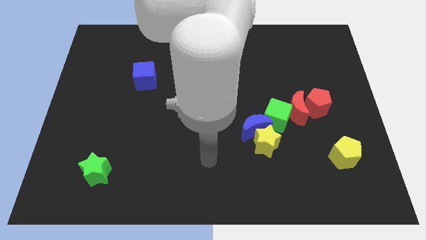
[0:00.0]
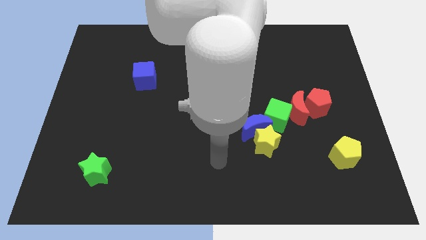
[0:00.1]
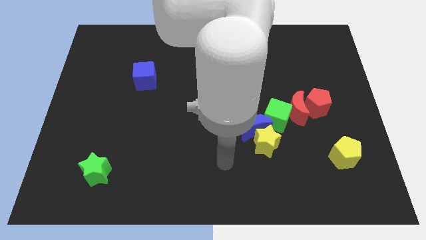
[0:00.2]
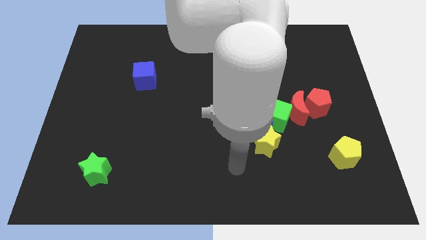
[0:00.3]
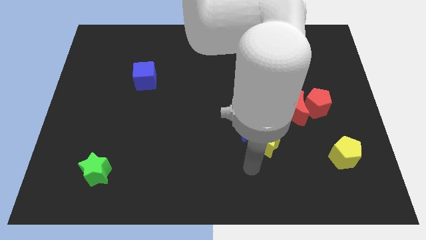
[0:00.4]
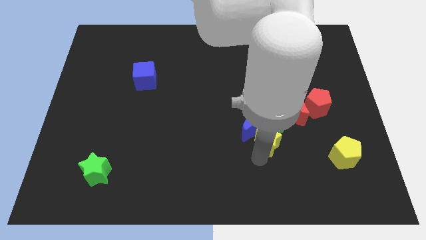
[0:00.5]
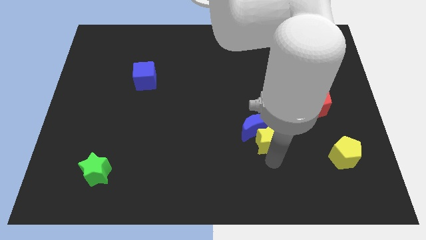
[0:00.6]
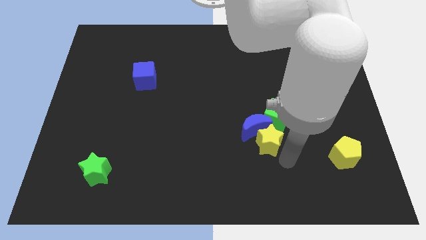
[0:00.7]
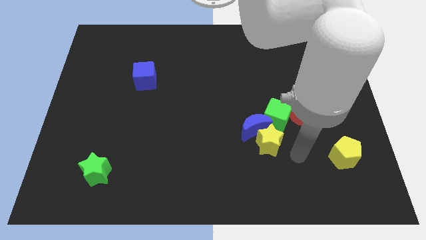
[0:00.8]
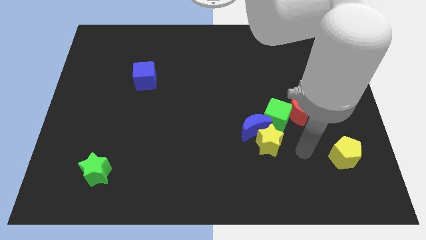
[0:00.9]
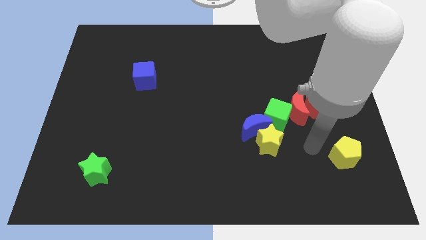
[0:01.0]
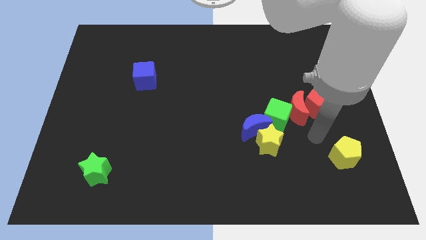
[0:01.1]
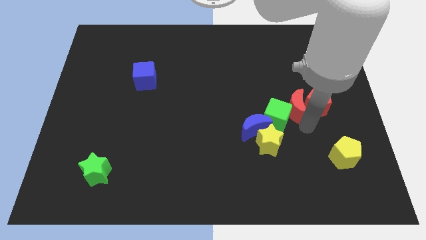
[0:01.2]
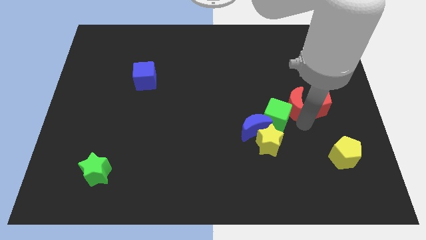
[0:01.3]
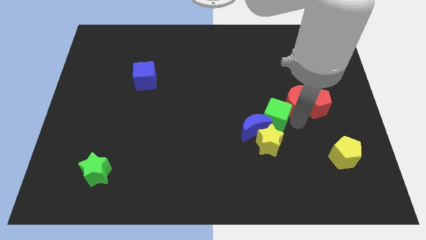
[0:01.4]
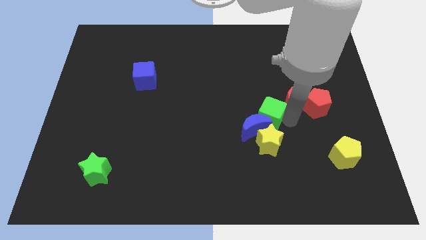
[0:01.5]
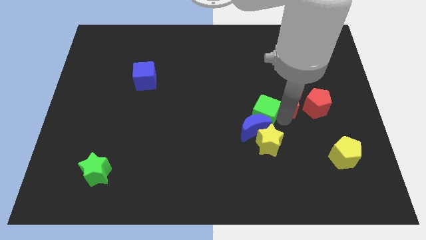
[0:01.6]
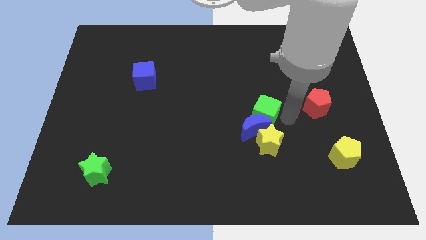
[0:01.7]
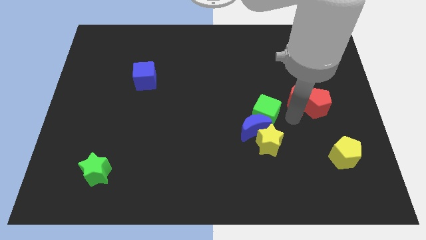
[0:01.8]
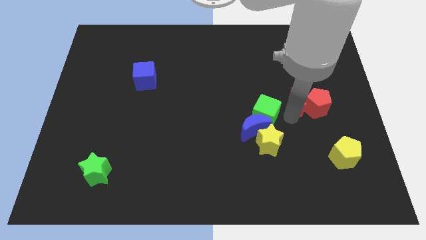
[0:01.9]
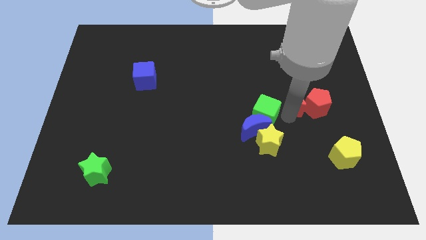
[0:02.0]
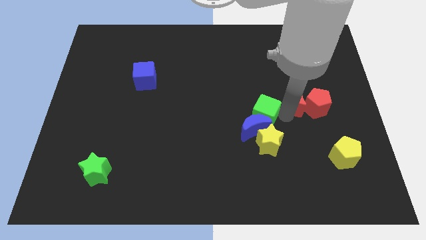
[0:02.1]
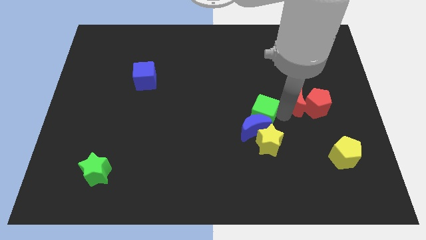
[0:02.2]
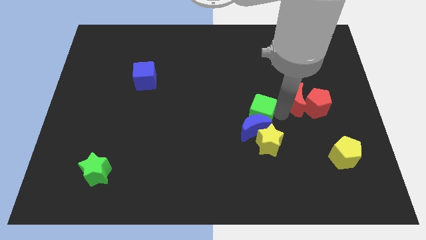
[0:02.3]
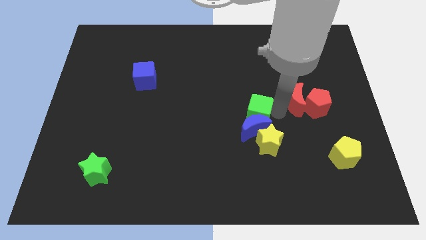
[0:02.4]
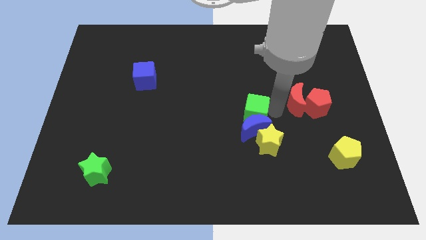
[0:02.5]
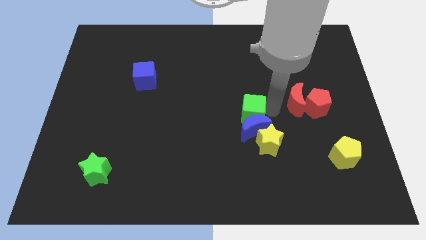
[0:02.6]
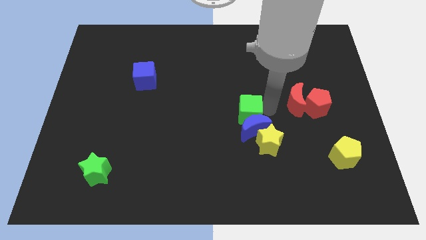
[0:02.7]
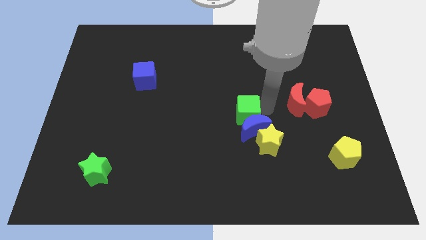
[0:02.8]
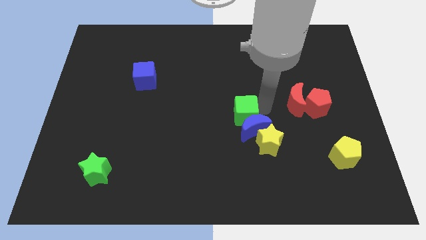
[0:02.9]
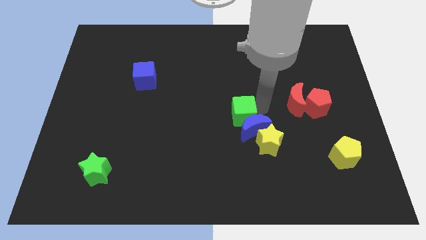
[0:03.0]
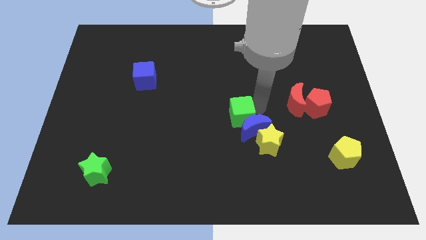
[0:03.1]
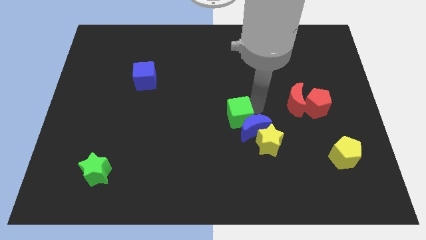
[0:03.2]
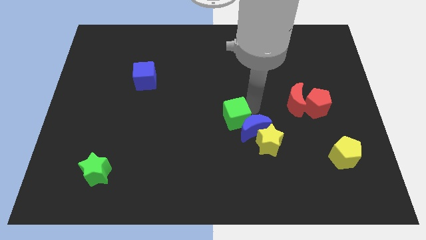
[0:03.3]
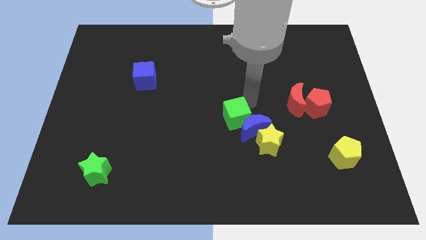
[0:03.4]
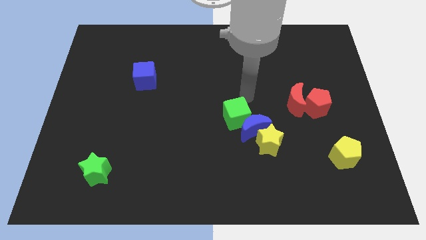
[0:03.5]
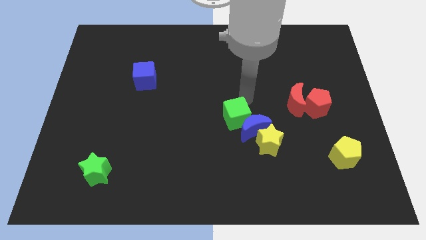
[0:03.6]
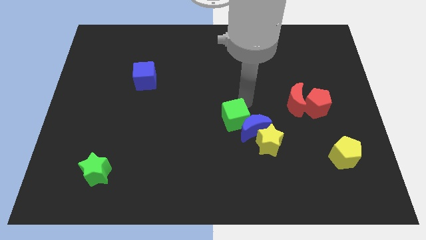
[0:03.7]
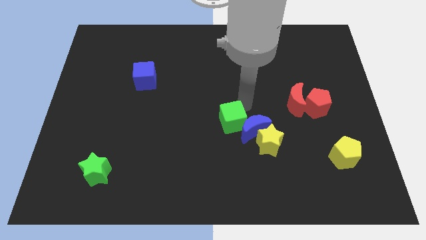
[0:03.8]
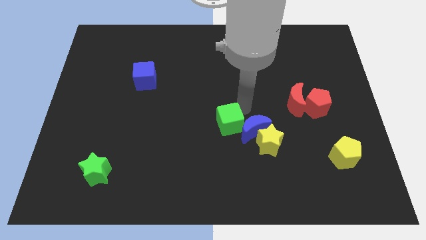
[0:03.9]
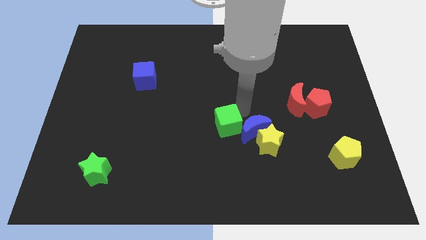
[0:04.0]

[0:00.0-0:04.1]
move the green cube downwards and to the left diagonally a bit

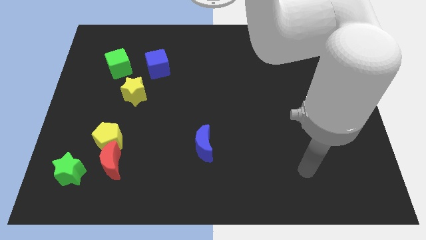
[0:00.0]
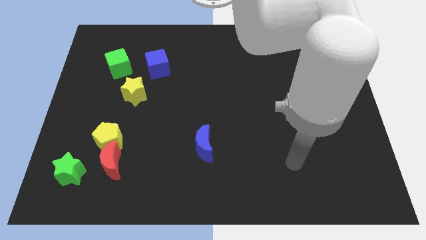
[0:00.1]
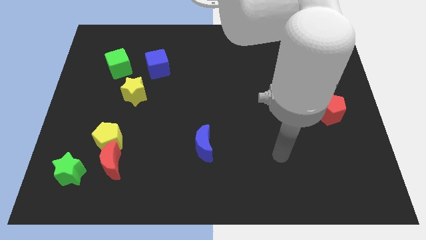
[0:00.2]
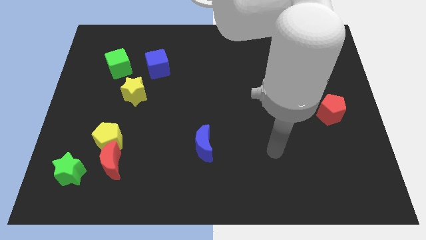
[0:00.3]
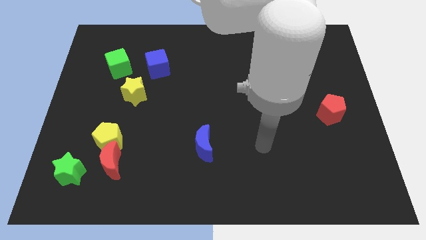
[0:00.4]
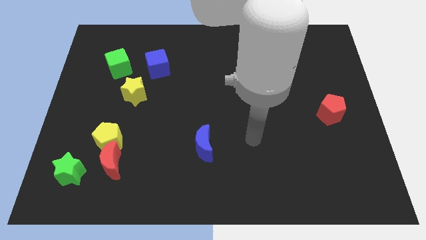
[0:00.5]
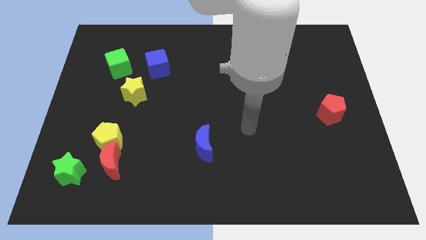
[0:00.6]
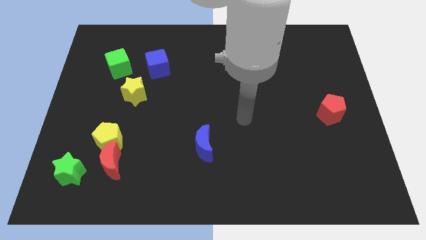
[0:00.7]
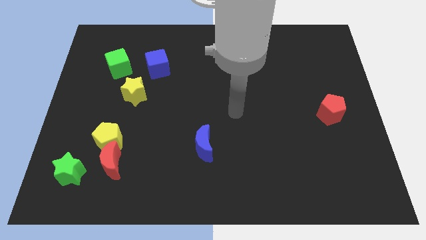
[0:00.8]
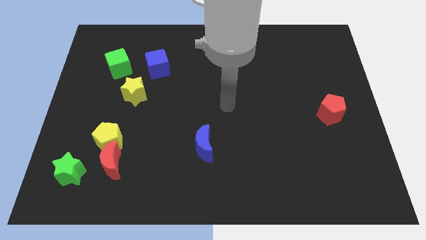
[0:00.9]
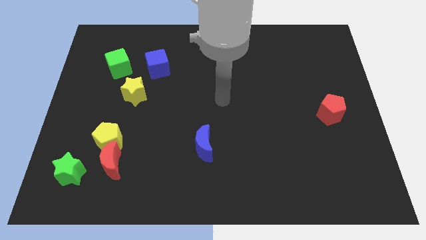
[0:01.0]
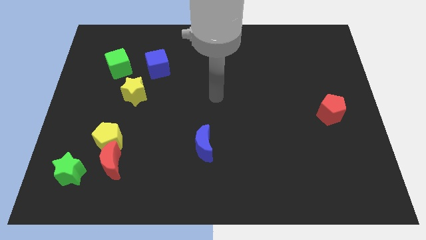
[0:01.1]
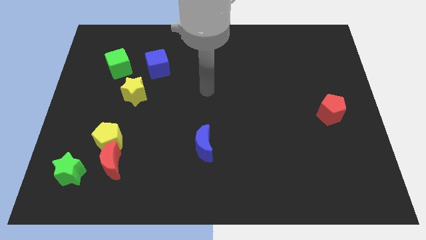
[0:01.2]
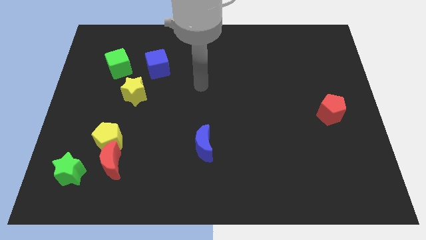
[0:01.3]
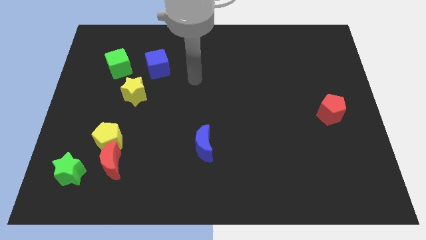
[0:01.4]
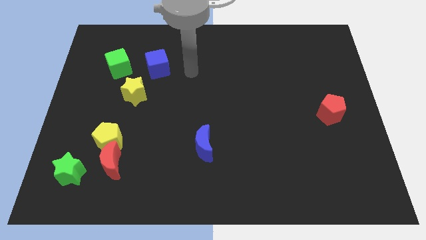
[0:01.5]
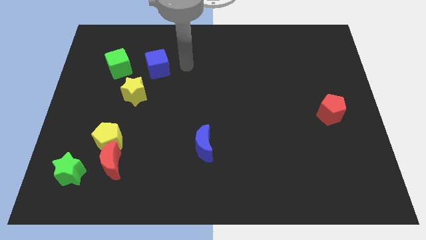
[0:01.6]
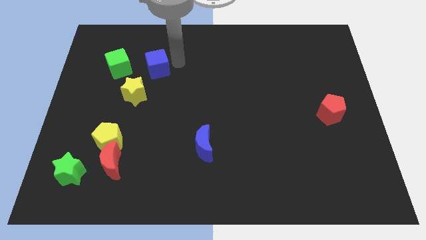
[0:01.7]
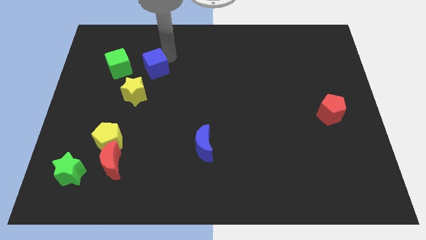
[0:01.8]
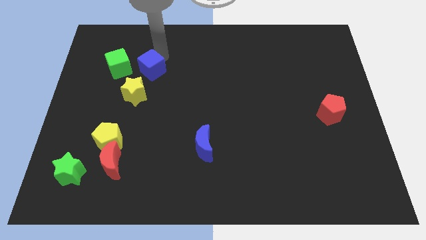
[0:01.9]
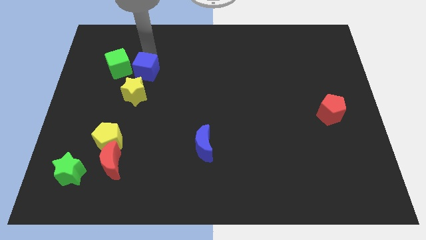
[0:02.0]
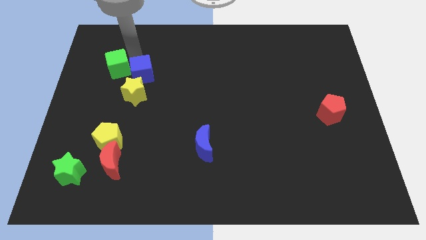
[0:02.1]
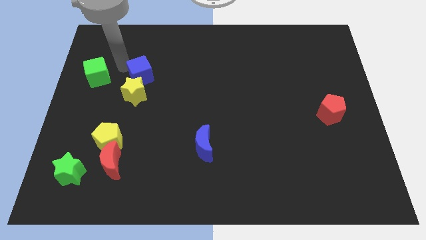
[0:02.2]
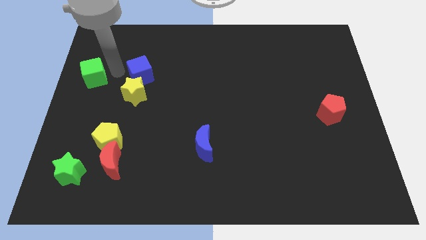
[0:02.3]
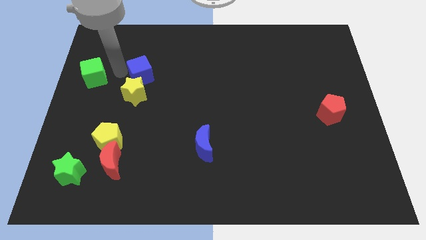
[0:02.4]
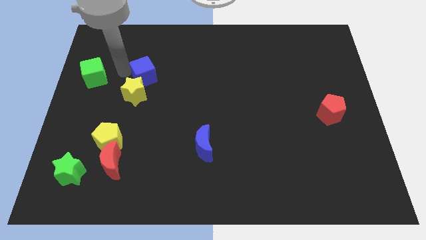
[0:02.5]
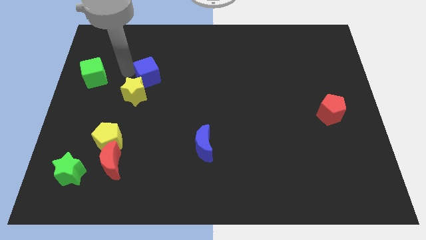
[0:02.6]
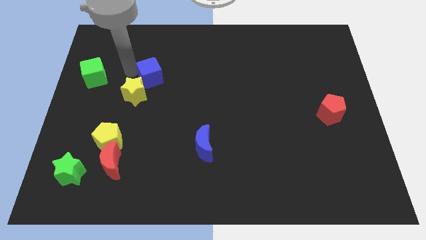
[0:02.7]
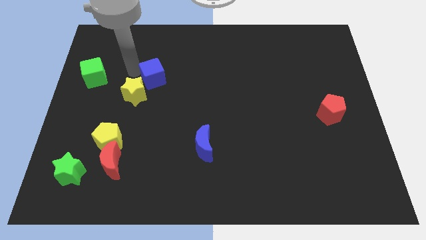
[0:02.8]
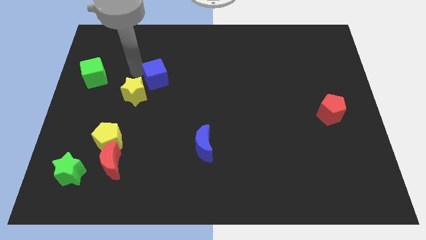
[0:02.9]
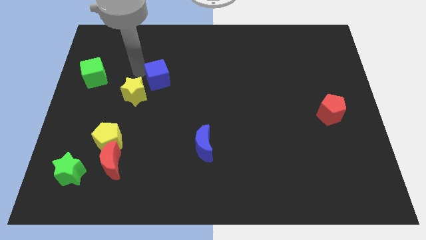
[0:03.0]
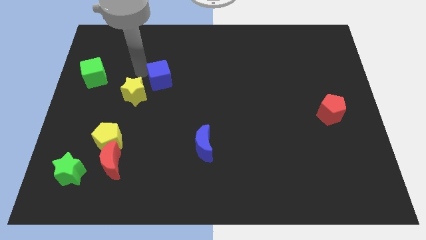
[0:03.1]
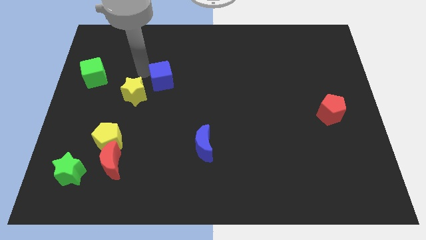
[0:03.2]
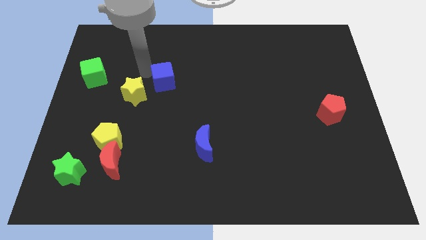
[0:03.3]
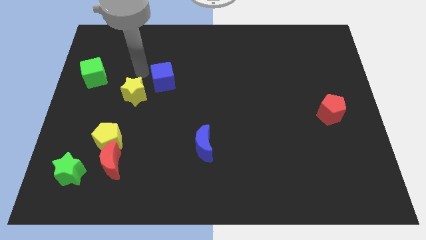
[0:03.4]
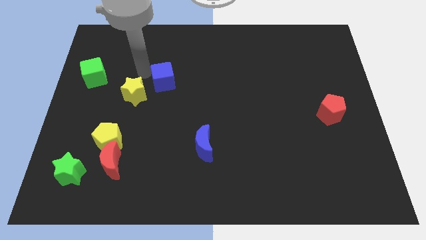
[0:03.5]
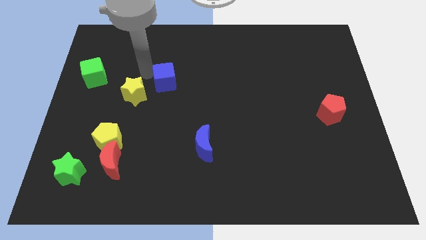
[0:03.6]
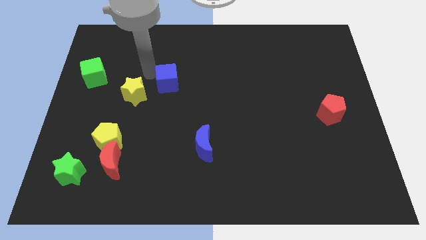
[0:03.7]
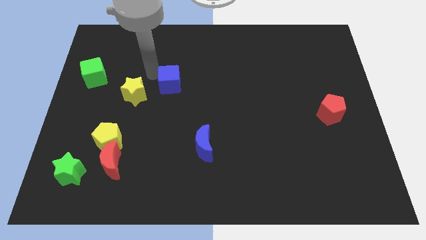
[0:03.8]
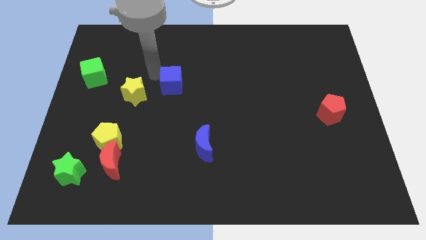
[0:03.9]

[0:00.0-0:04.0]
move the blue cube somewhat downwards and to the right
